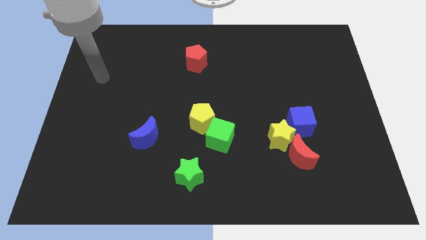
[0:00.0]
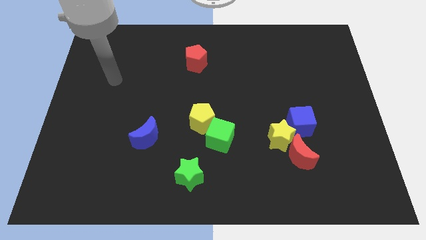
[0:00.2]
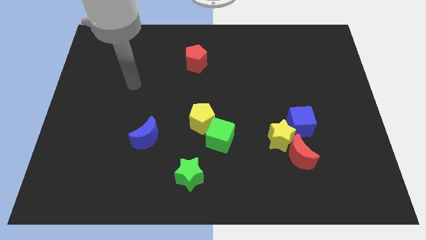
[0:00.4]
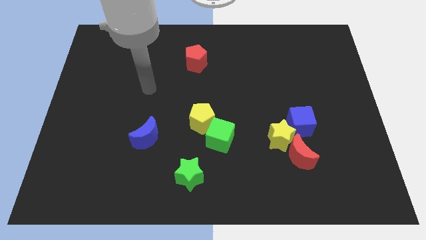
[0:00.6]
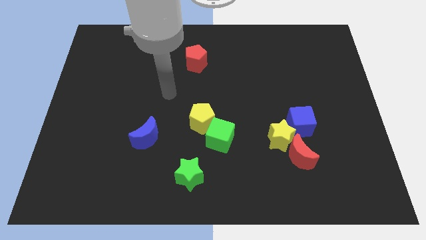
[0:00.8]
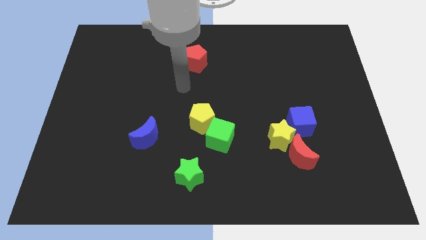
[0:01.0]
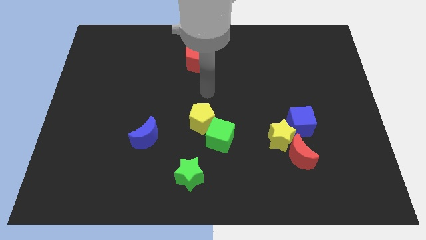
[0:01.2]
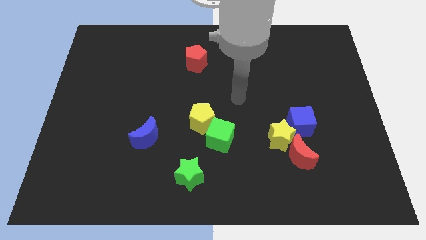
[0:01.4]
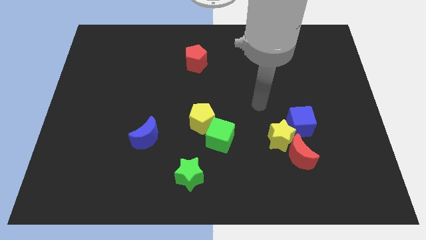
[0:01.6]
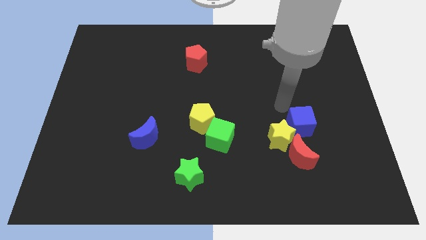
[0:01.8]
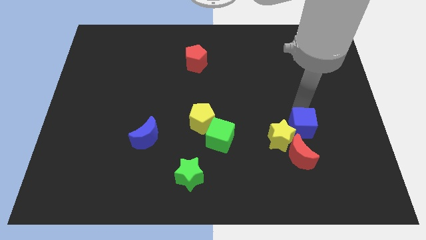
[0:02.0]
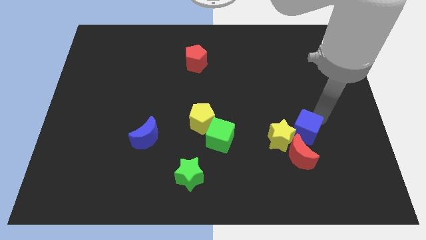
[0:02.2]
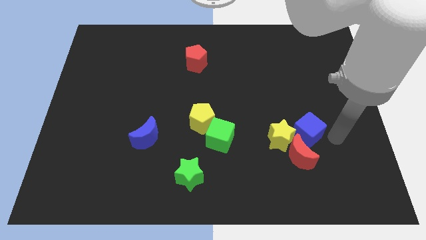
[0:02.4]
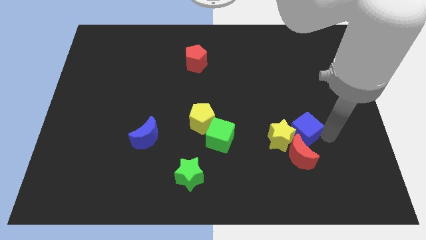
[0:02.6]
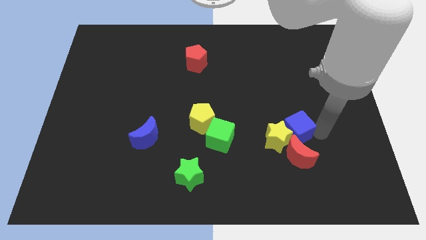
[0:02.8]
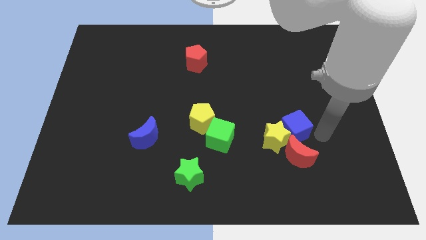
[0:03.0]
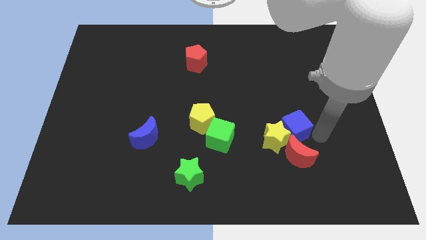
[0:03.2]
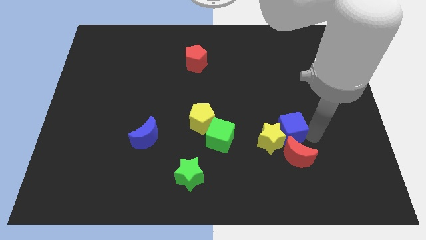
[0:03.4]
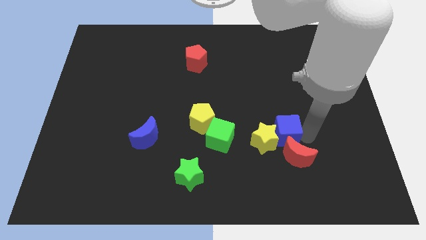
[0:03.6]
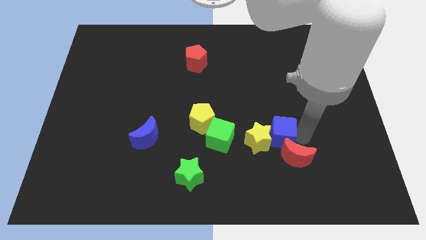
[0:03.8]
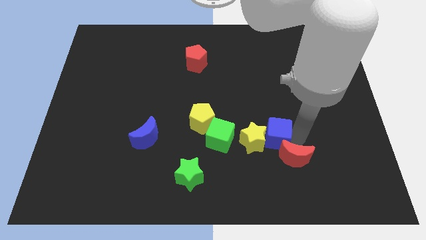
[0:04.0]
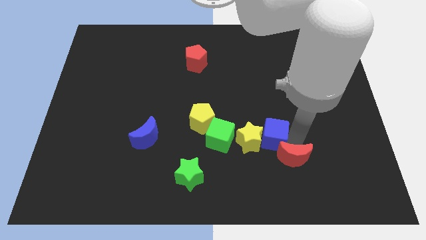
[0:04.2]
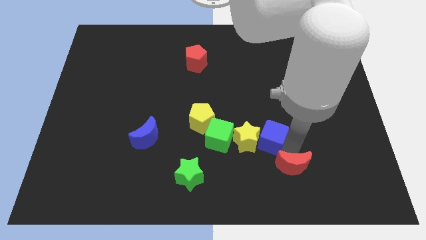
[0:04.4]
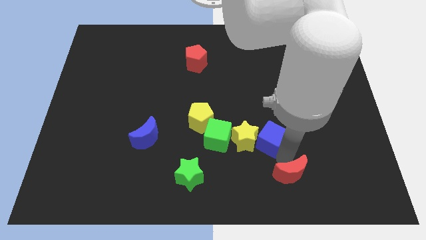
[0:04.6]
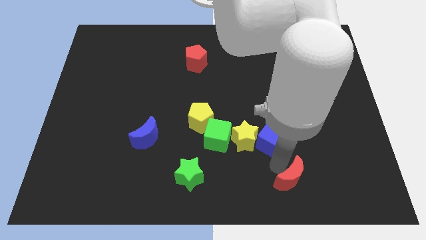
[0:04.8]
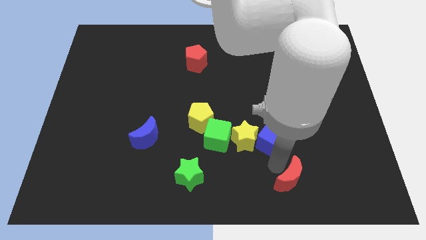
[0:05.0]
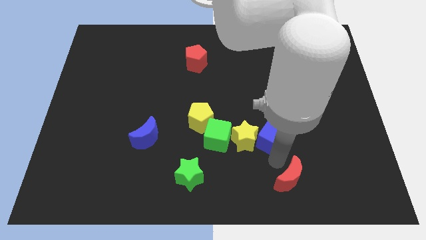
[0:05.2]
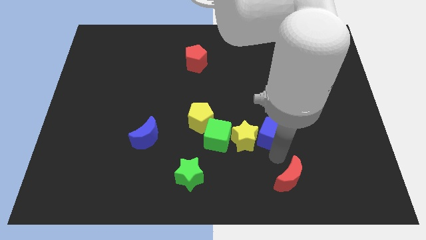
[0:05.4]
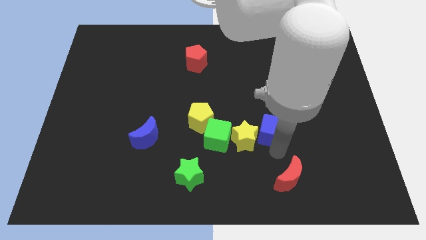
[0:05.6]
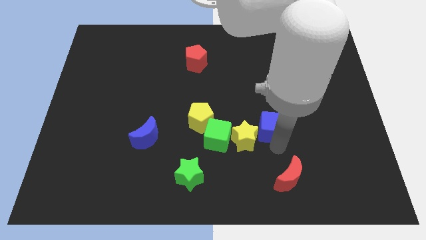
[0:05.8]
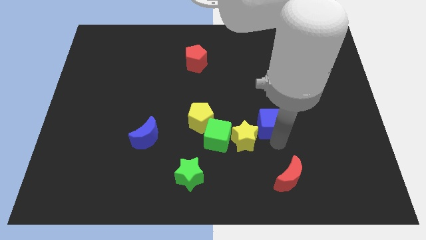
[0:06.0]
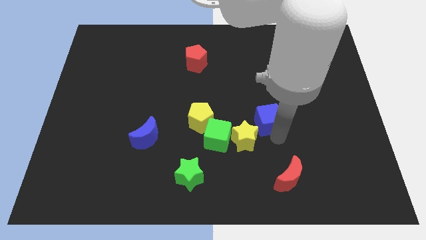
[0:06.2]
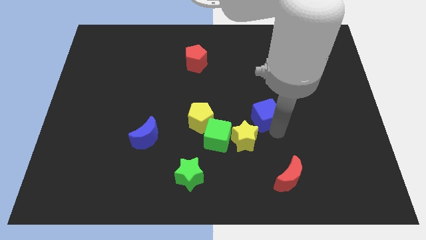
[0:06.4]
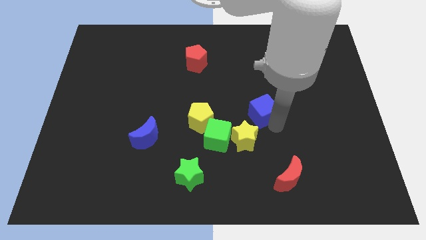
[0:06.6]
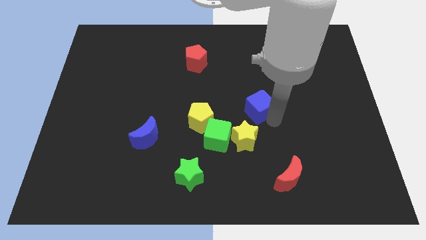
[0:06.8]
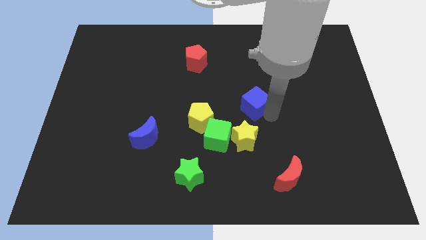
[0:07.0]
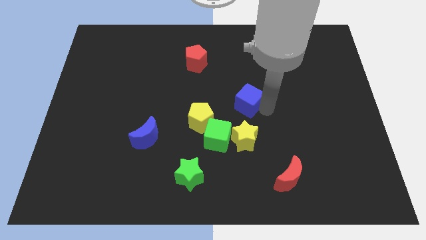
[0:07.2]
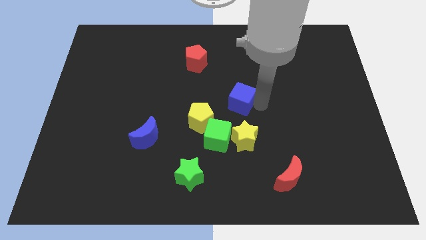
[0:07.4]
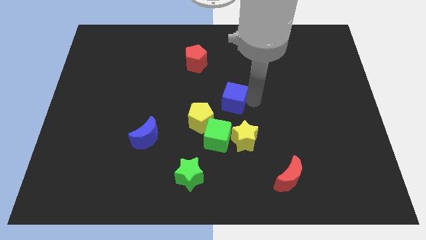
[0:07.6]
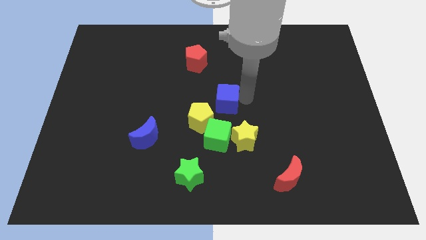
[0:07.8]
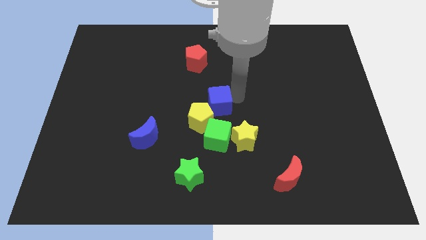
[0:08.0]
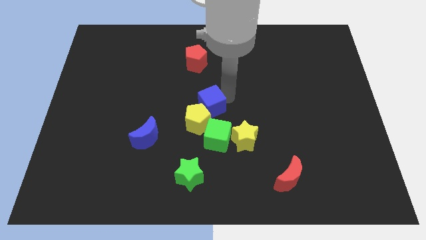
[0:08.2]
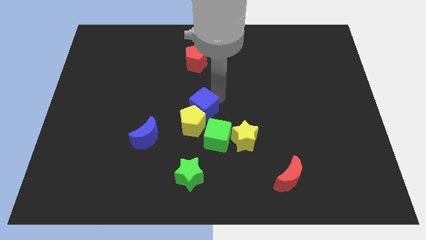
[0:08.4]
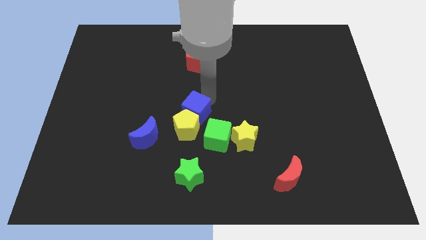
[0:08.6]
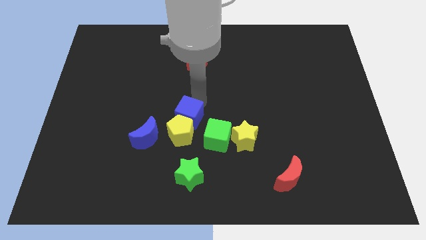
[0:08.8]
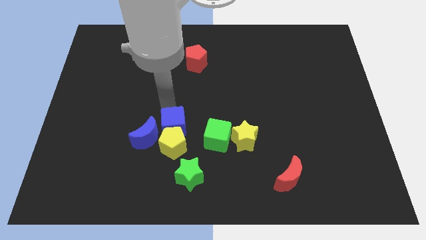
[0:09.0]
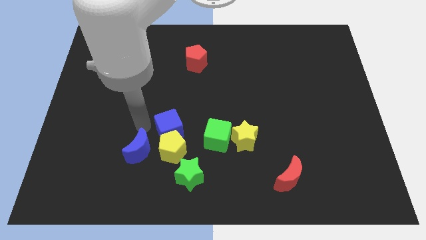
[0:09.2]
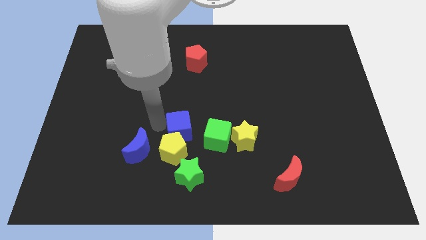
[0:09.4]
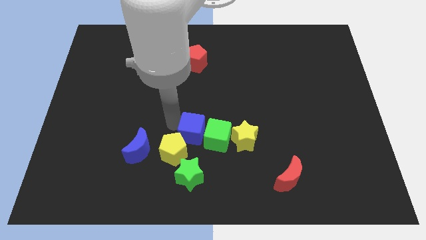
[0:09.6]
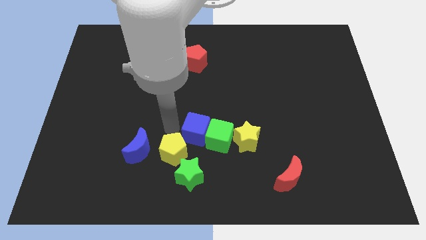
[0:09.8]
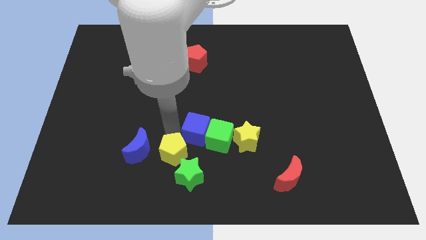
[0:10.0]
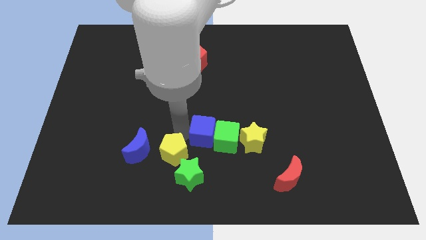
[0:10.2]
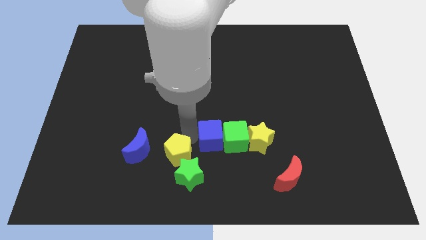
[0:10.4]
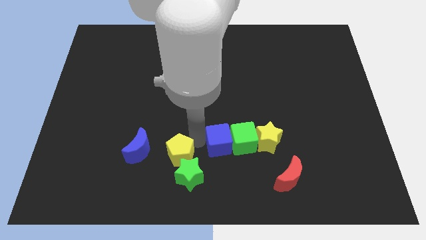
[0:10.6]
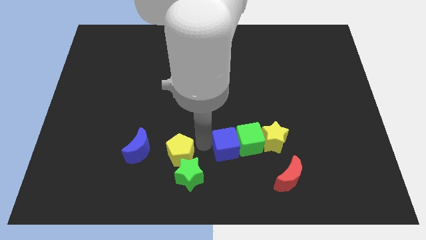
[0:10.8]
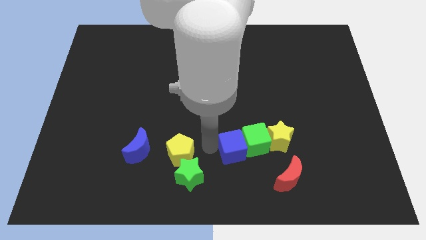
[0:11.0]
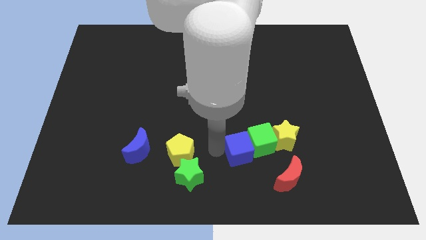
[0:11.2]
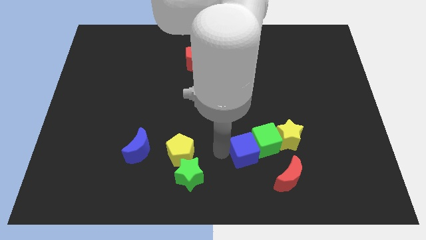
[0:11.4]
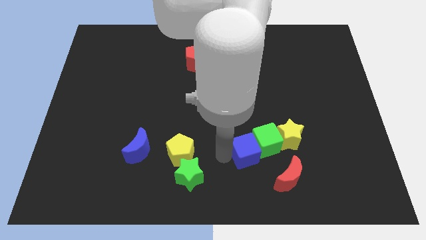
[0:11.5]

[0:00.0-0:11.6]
push the blue cube just right of the green star

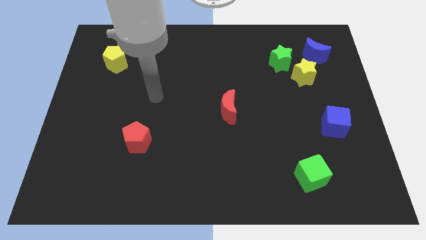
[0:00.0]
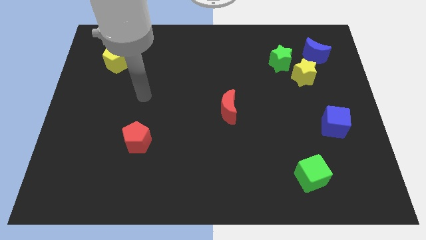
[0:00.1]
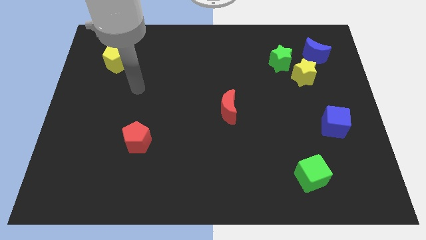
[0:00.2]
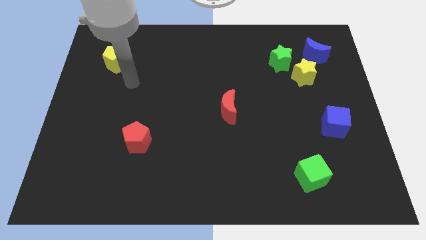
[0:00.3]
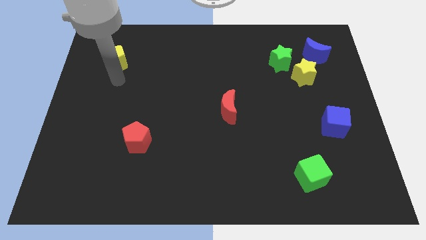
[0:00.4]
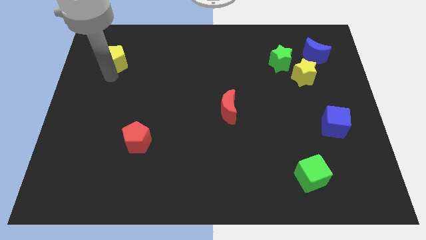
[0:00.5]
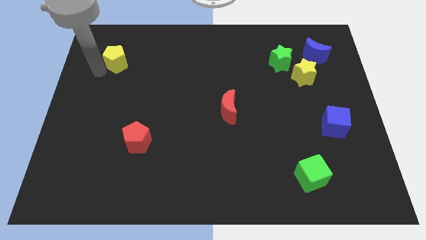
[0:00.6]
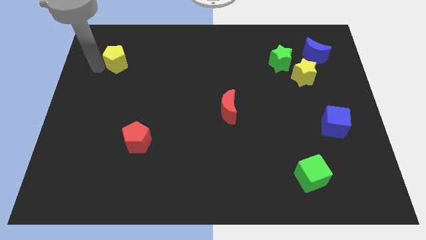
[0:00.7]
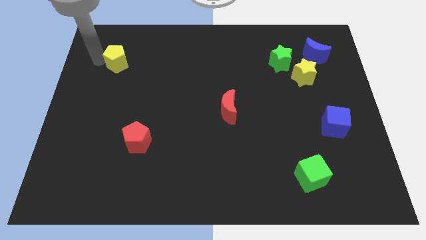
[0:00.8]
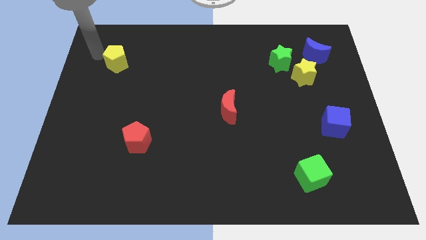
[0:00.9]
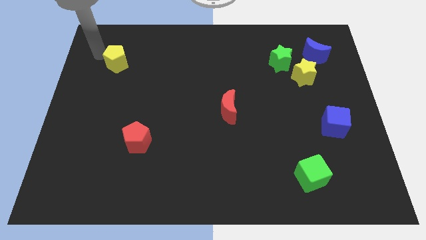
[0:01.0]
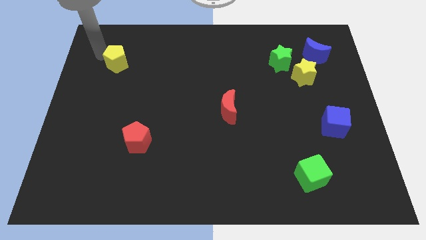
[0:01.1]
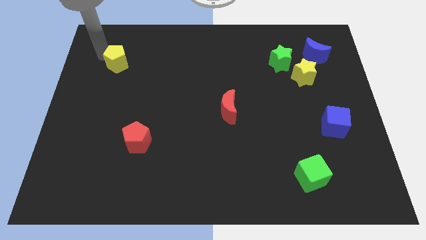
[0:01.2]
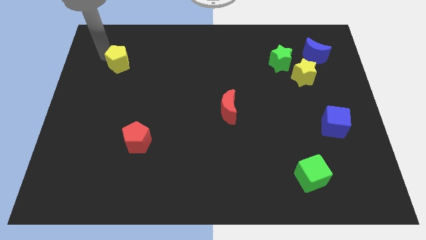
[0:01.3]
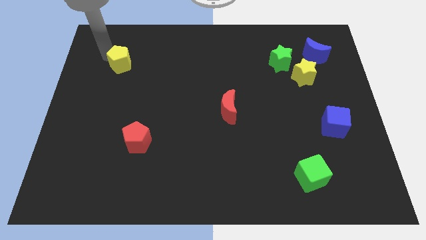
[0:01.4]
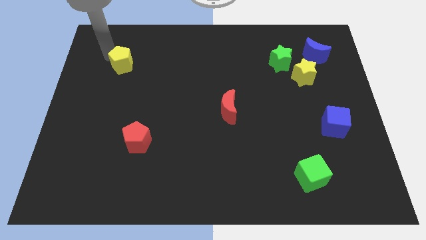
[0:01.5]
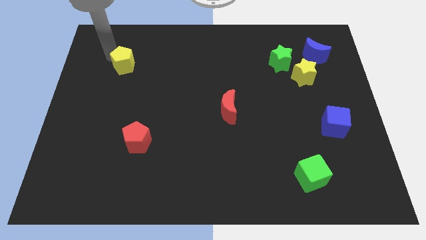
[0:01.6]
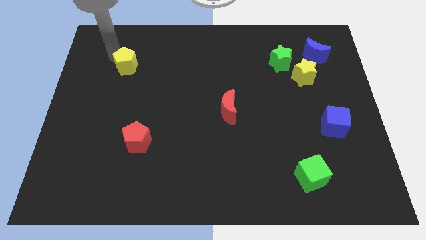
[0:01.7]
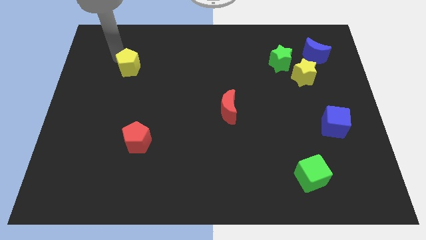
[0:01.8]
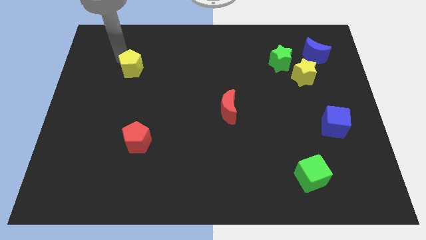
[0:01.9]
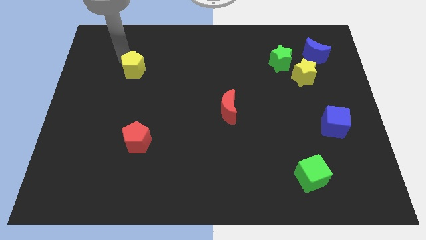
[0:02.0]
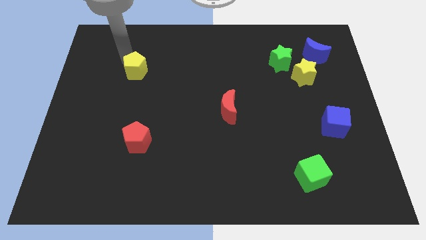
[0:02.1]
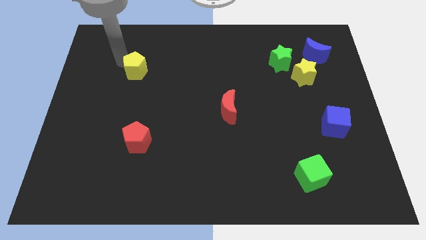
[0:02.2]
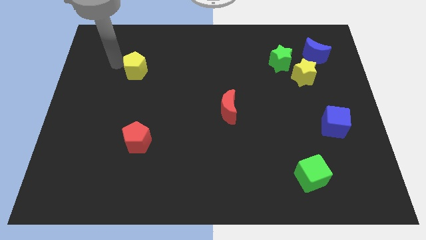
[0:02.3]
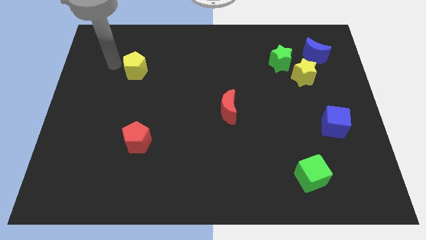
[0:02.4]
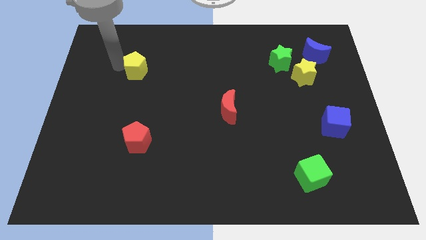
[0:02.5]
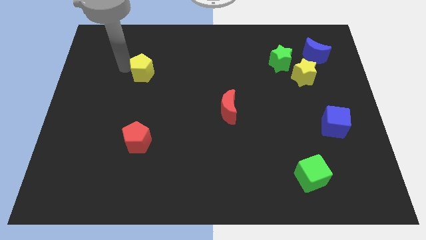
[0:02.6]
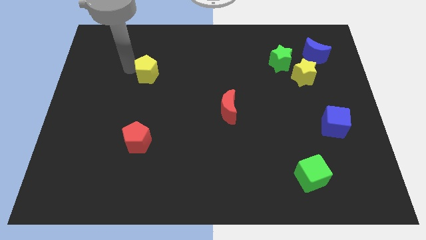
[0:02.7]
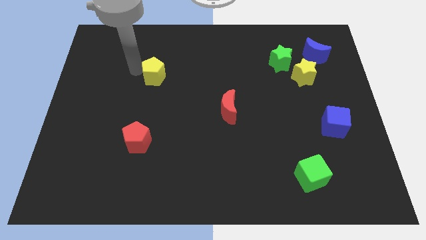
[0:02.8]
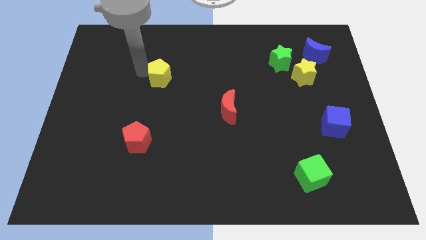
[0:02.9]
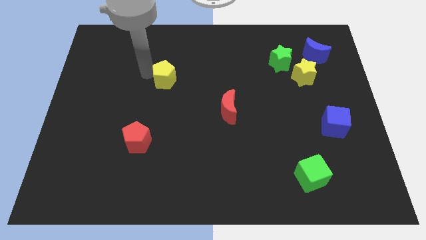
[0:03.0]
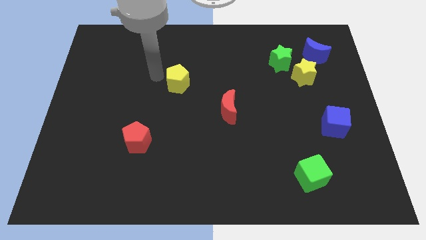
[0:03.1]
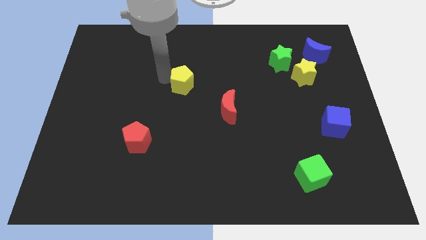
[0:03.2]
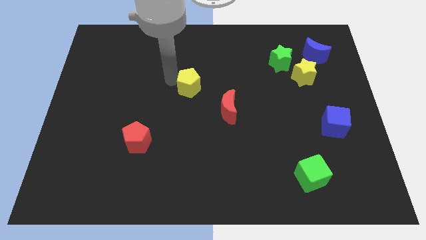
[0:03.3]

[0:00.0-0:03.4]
push the yellow pentagon diagonally up and to the left of the red moon
